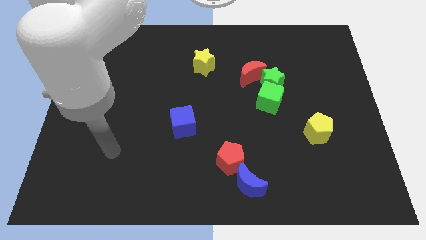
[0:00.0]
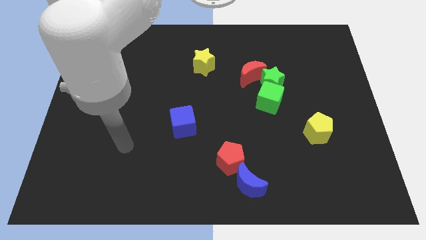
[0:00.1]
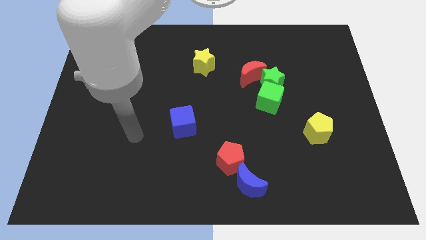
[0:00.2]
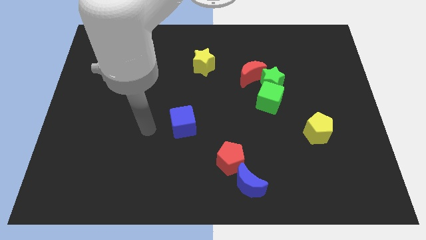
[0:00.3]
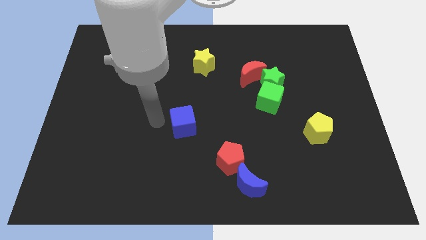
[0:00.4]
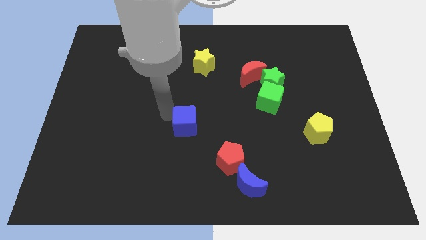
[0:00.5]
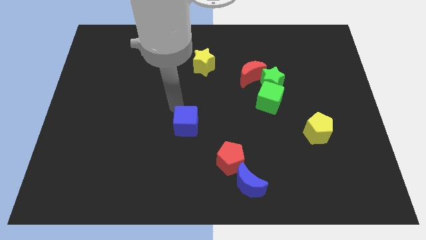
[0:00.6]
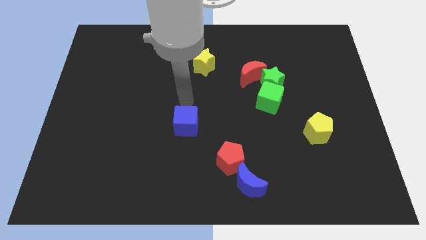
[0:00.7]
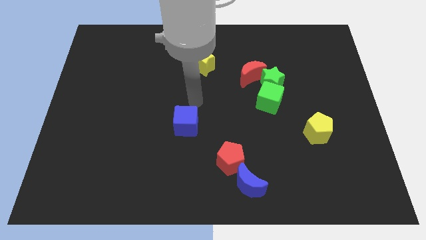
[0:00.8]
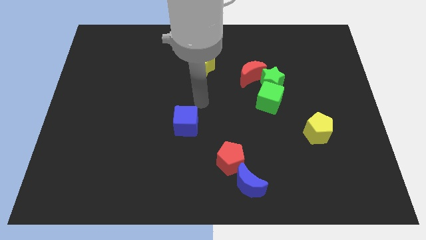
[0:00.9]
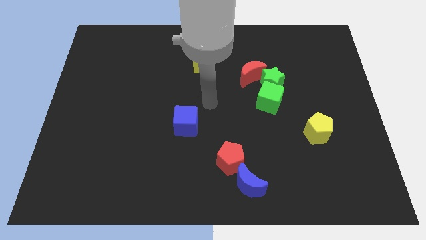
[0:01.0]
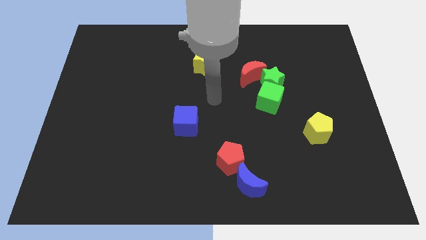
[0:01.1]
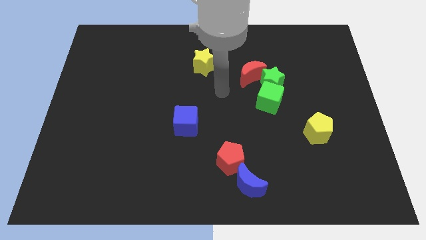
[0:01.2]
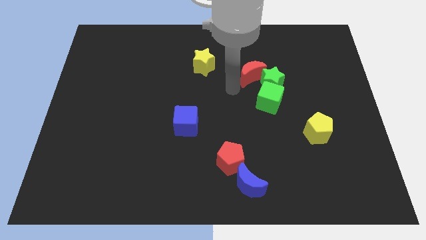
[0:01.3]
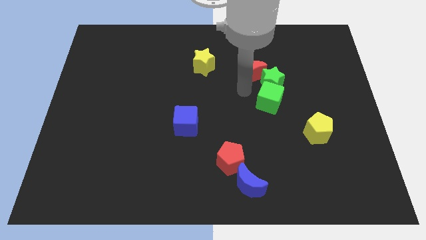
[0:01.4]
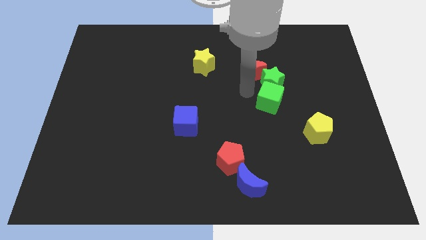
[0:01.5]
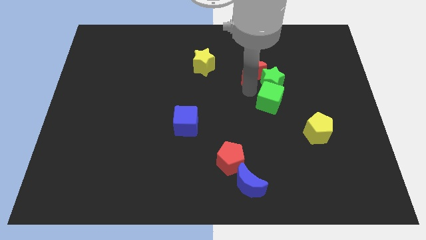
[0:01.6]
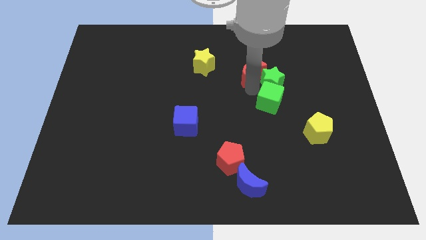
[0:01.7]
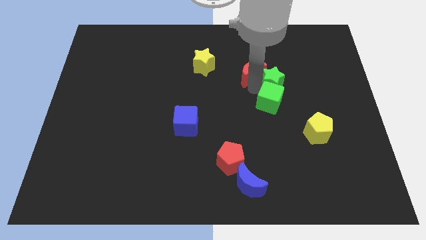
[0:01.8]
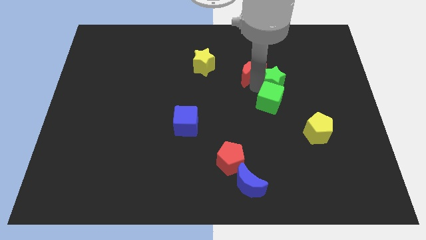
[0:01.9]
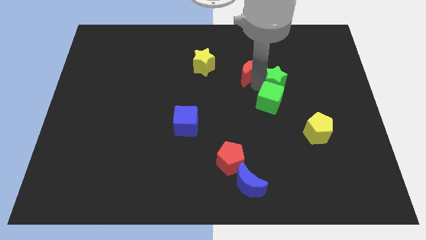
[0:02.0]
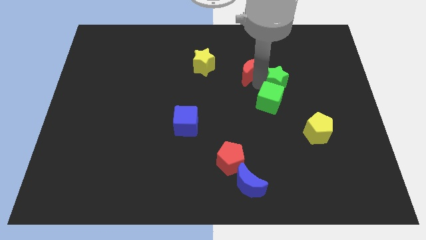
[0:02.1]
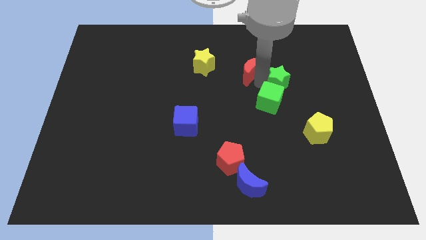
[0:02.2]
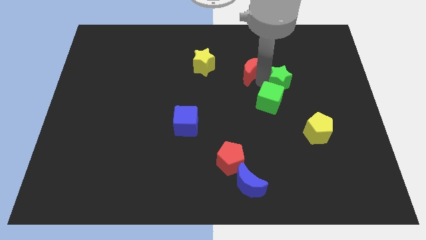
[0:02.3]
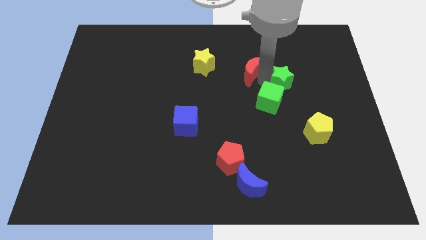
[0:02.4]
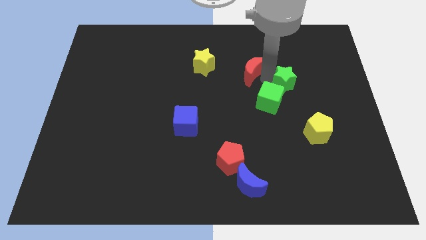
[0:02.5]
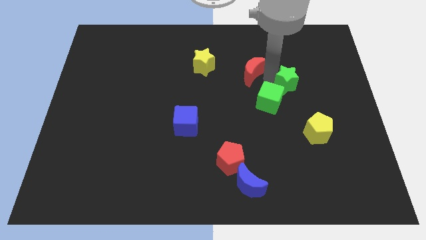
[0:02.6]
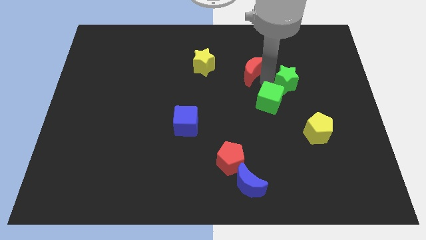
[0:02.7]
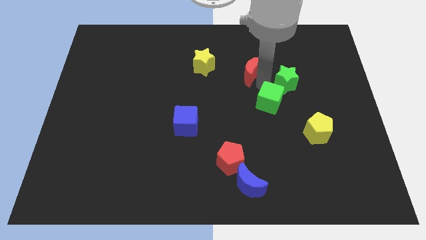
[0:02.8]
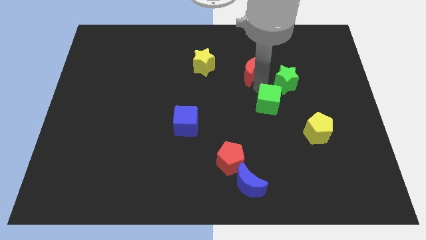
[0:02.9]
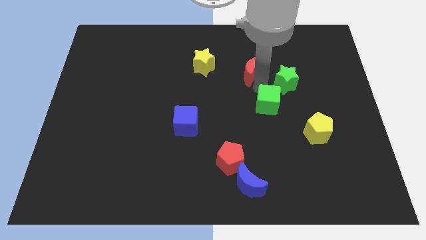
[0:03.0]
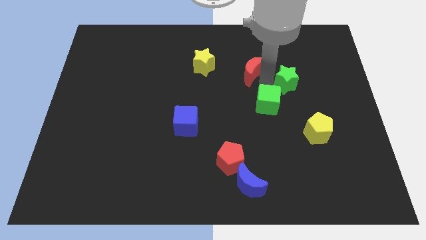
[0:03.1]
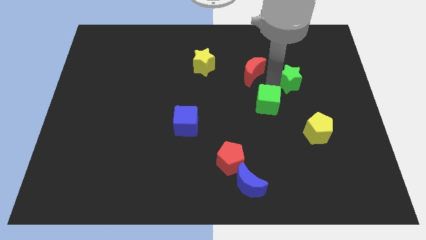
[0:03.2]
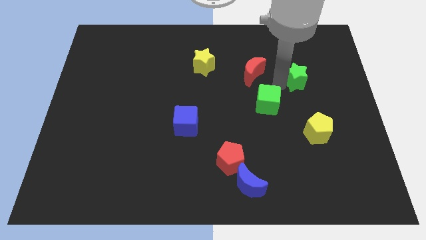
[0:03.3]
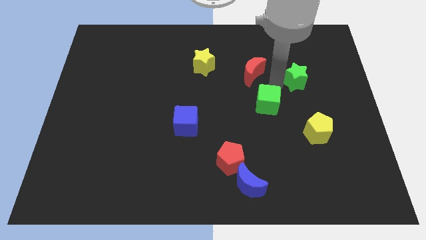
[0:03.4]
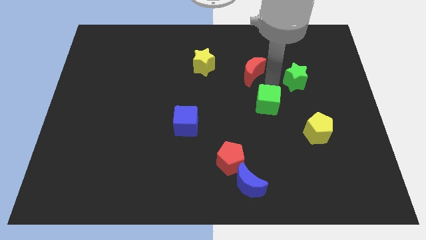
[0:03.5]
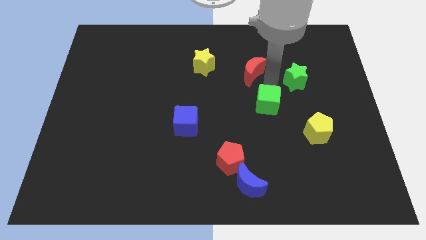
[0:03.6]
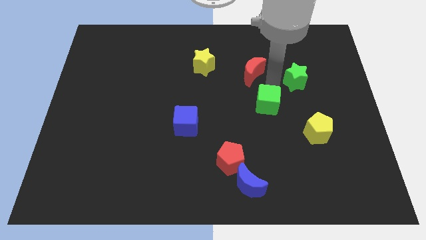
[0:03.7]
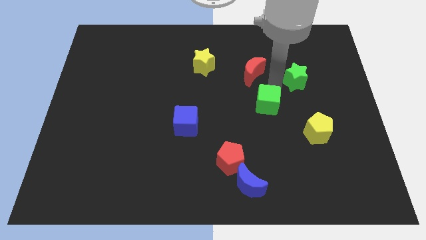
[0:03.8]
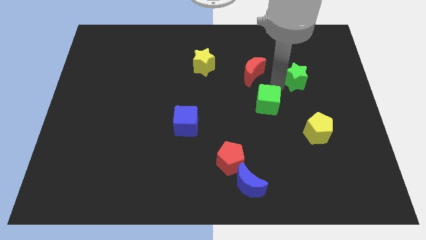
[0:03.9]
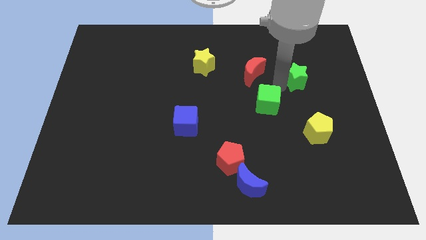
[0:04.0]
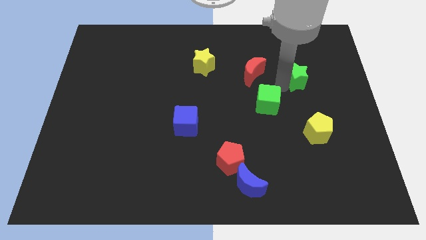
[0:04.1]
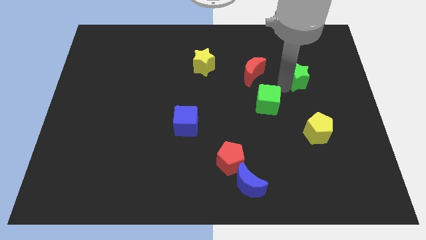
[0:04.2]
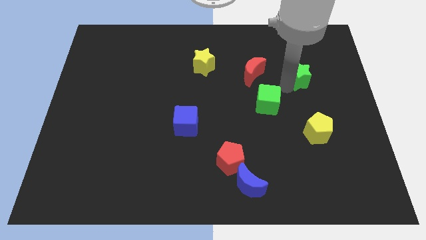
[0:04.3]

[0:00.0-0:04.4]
separate the green star from the green cube and red moon

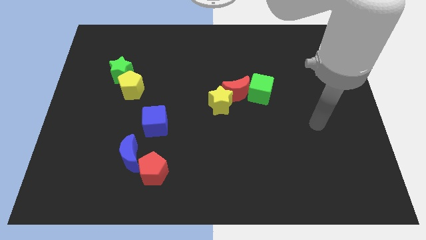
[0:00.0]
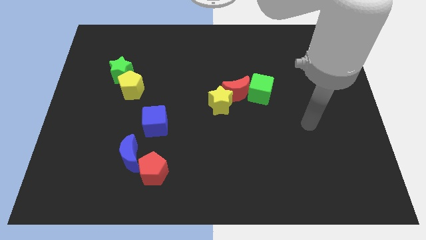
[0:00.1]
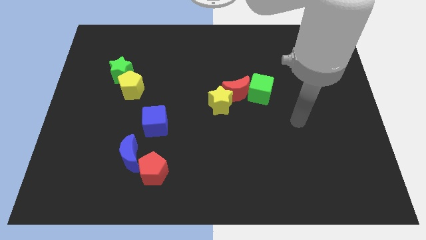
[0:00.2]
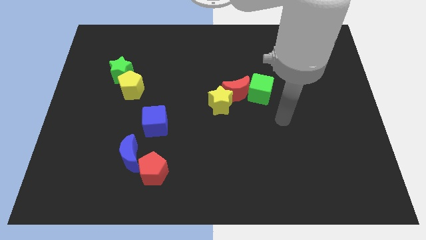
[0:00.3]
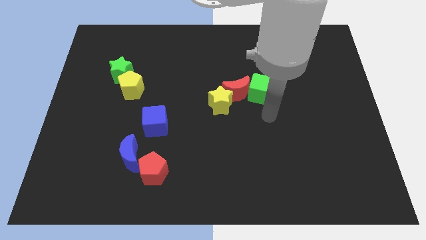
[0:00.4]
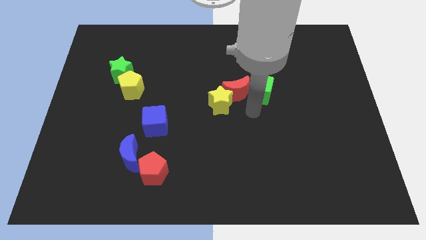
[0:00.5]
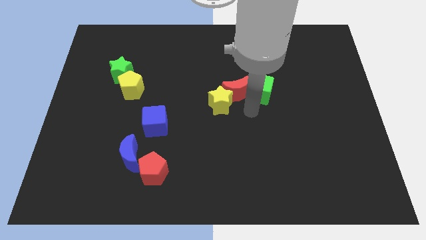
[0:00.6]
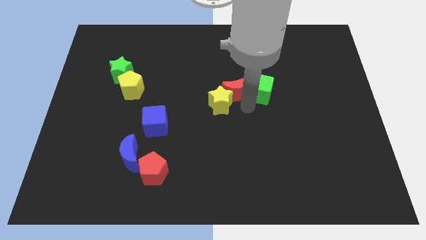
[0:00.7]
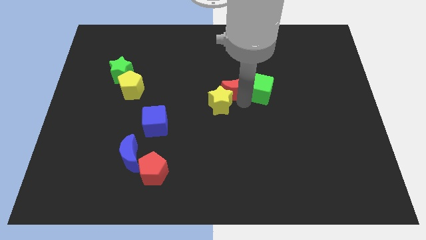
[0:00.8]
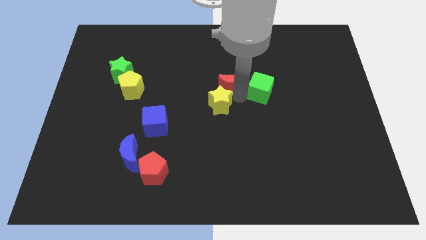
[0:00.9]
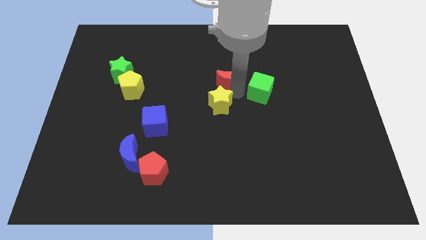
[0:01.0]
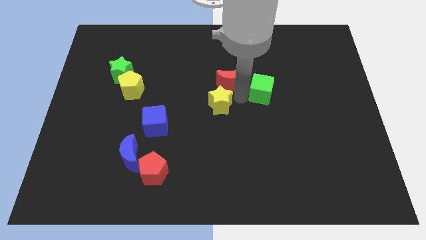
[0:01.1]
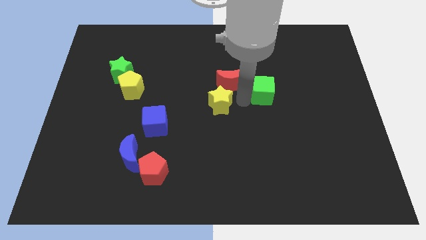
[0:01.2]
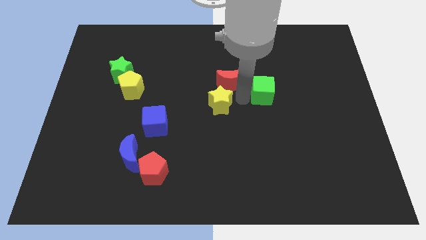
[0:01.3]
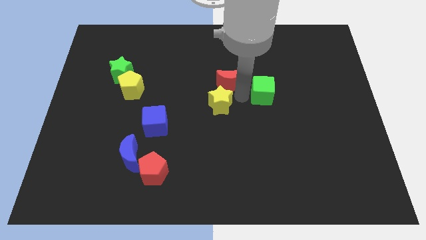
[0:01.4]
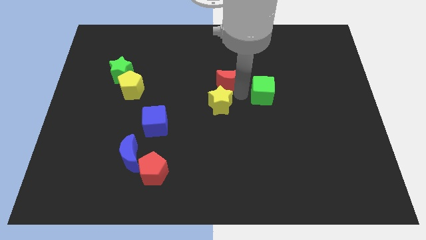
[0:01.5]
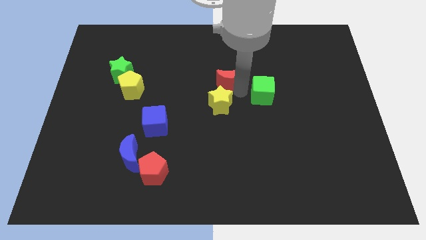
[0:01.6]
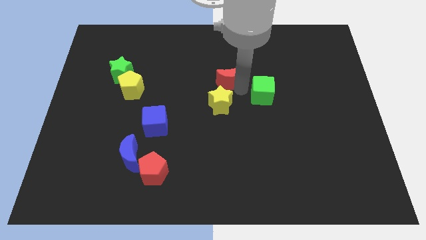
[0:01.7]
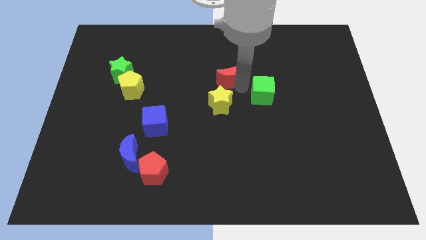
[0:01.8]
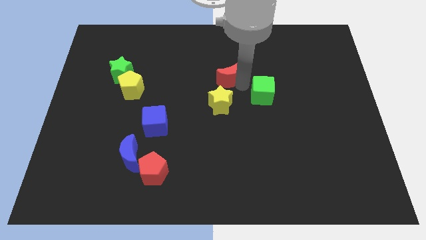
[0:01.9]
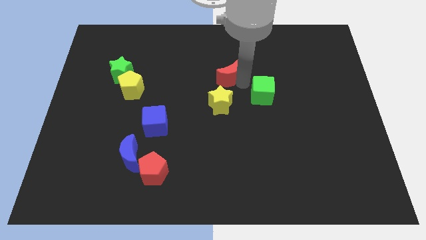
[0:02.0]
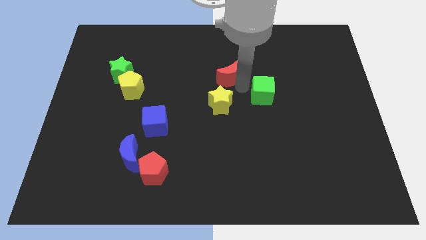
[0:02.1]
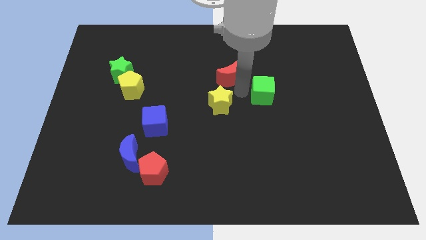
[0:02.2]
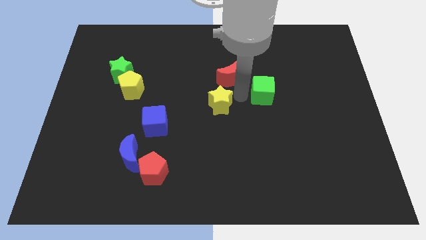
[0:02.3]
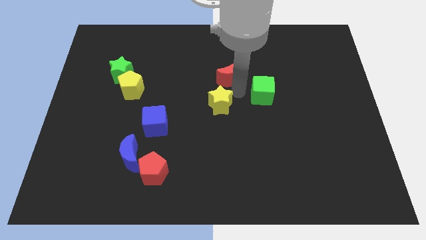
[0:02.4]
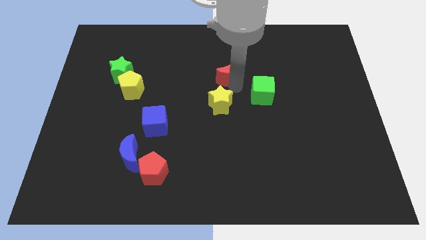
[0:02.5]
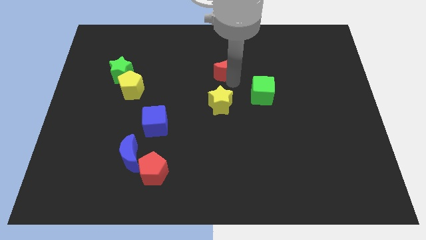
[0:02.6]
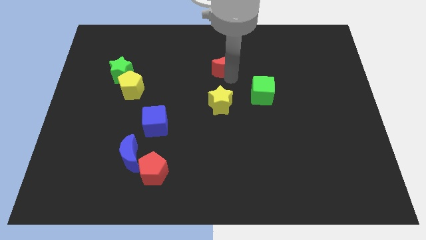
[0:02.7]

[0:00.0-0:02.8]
pull the red moon apart from the yellow star and green cube

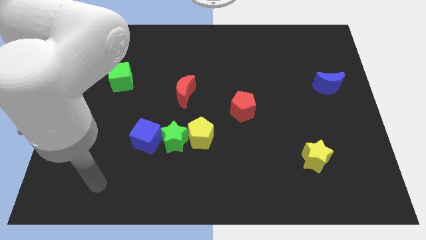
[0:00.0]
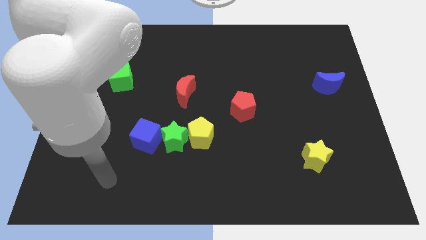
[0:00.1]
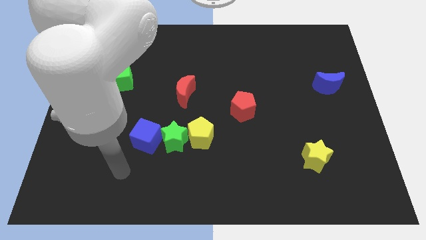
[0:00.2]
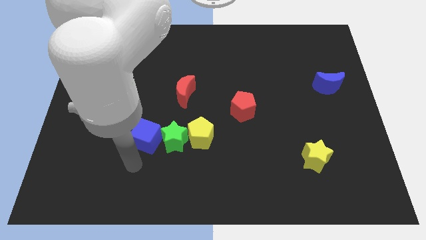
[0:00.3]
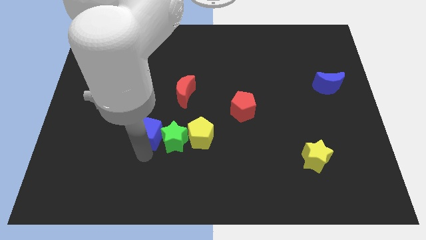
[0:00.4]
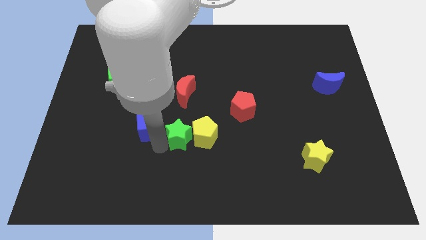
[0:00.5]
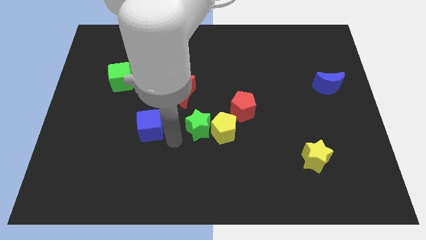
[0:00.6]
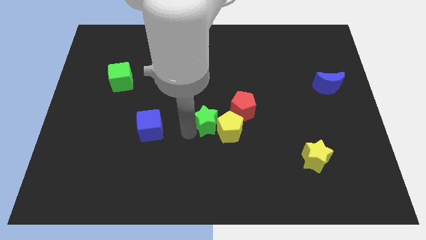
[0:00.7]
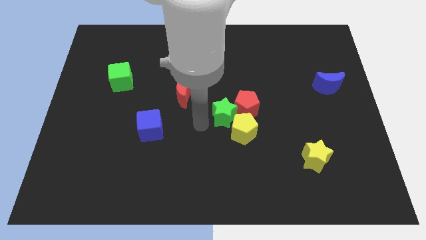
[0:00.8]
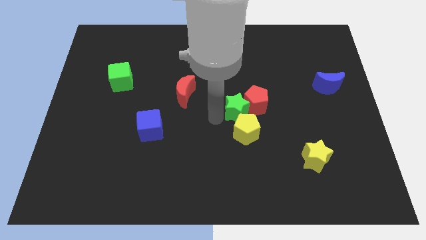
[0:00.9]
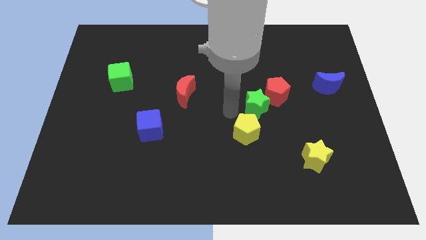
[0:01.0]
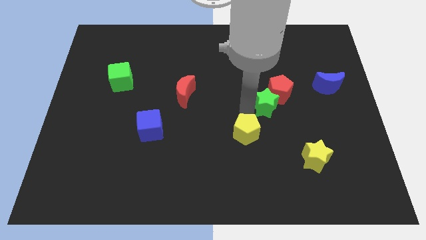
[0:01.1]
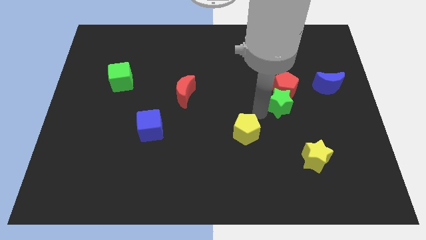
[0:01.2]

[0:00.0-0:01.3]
move the yellow pentagon away from the green star

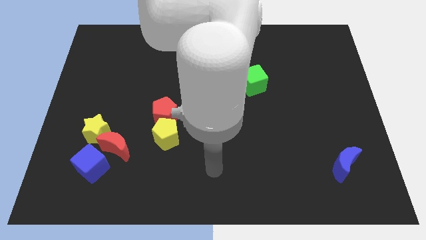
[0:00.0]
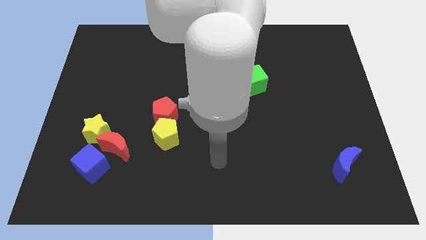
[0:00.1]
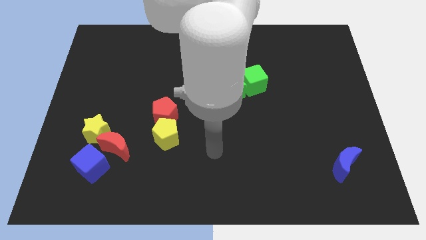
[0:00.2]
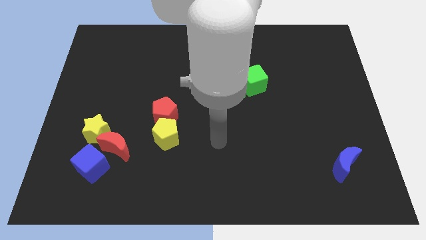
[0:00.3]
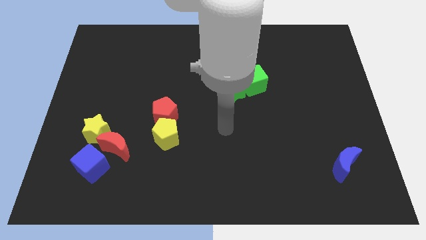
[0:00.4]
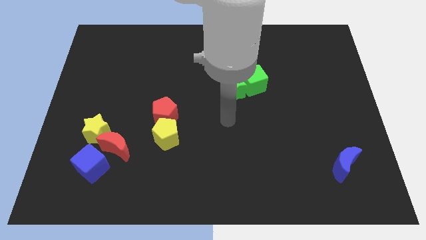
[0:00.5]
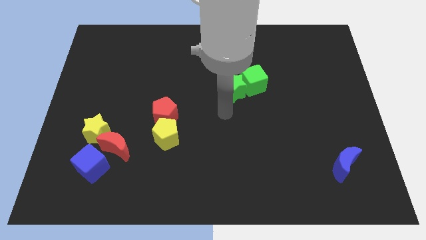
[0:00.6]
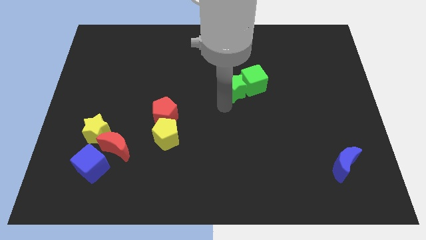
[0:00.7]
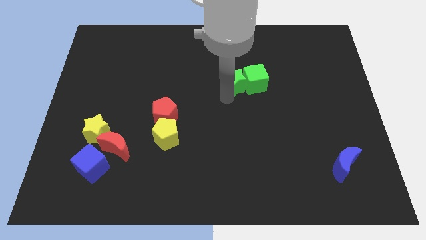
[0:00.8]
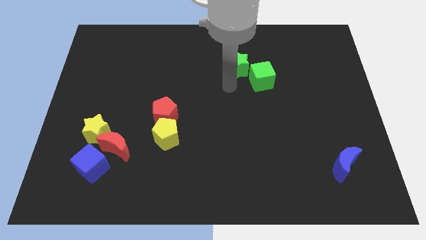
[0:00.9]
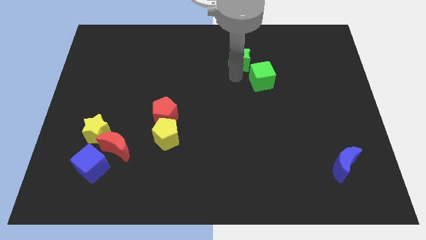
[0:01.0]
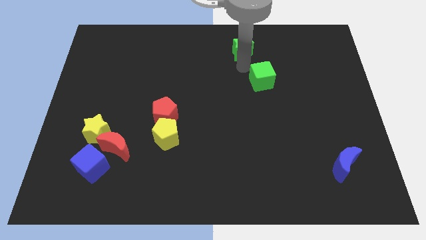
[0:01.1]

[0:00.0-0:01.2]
move the green cube away from the green star
